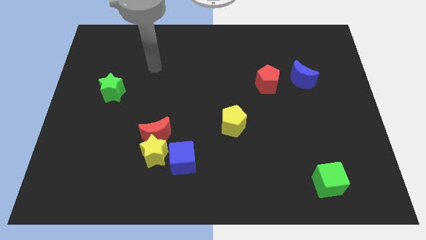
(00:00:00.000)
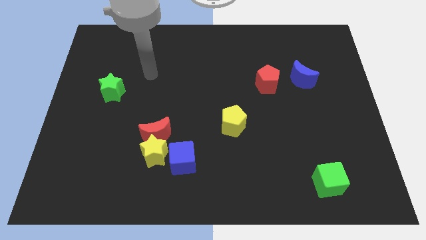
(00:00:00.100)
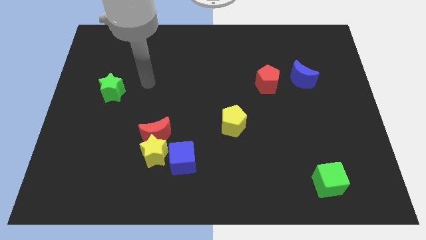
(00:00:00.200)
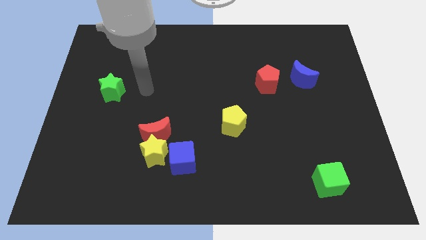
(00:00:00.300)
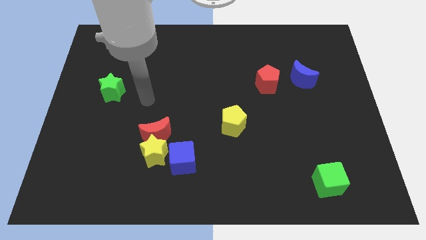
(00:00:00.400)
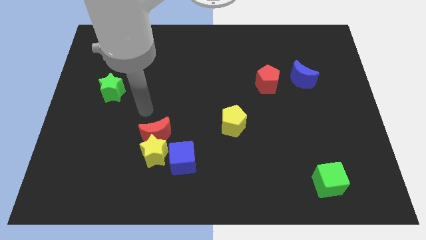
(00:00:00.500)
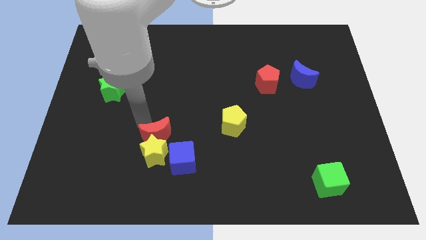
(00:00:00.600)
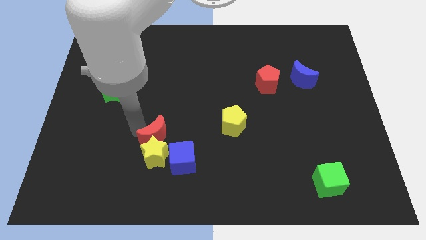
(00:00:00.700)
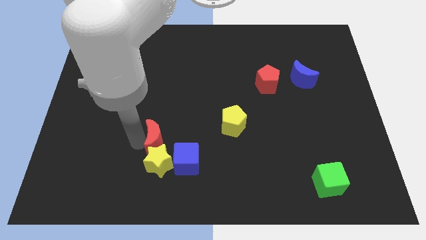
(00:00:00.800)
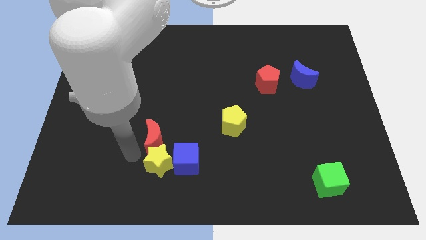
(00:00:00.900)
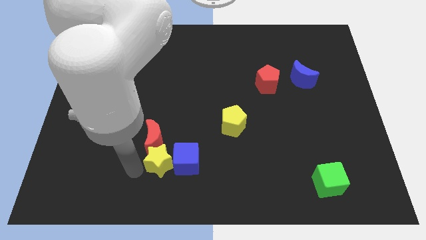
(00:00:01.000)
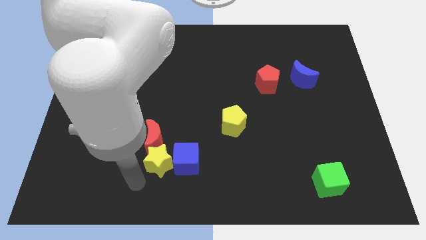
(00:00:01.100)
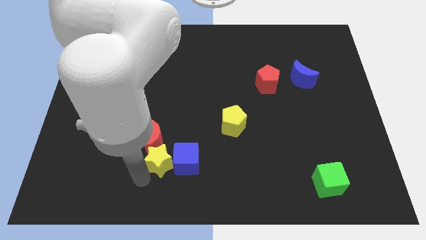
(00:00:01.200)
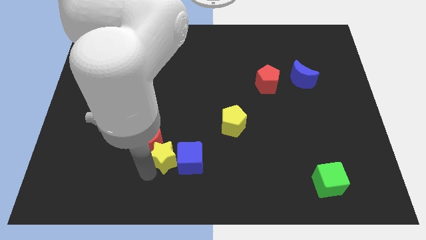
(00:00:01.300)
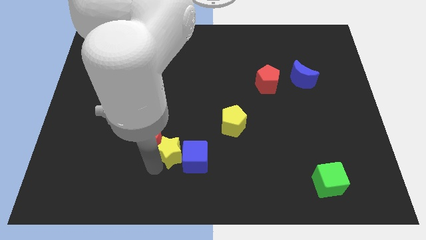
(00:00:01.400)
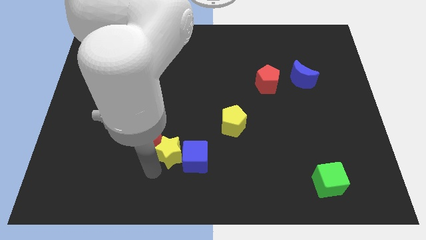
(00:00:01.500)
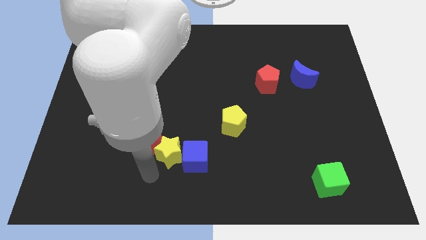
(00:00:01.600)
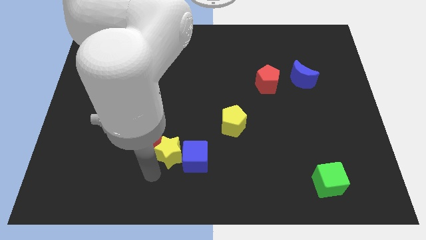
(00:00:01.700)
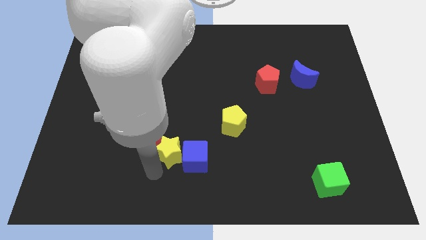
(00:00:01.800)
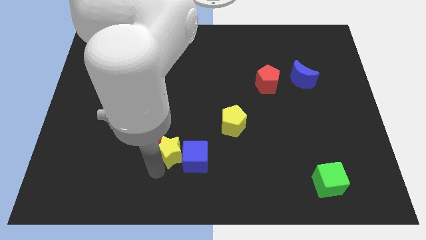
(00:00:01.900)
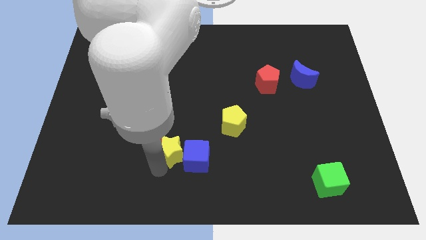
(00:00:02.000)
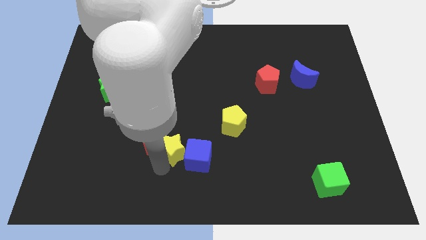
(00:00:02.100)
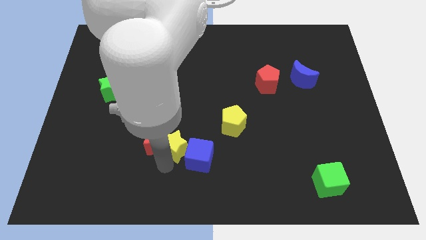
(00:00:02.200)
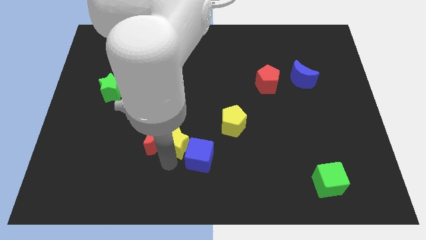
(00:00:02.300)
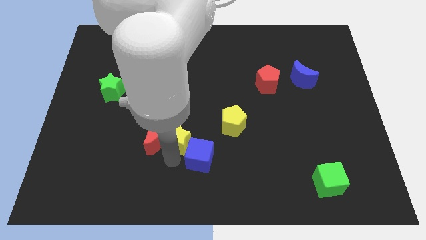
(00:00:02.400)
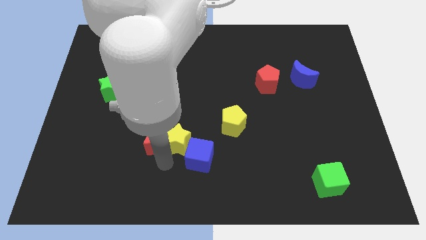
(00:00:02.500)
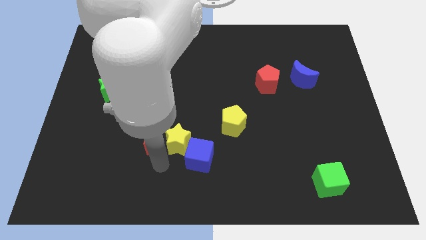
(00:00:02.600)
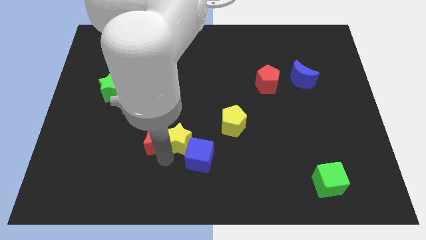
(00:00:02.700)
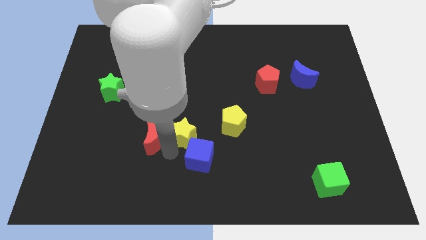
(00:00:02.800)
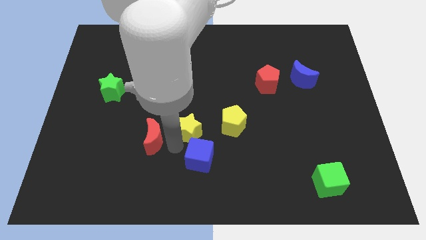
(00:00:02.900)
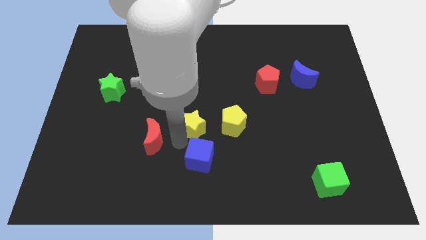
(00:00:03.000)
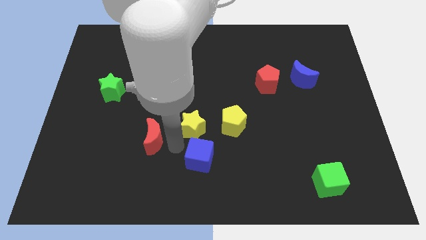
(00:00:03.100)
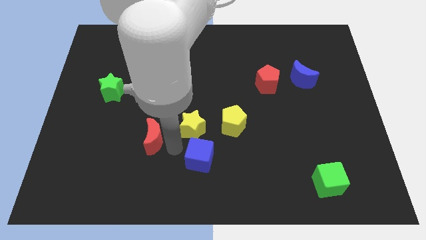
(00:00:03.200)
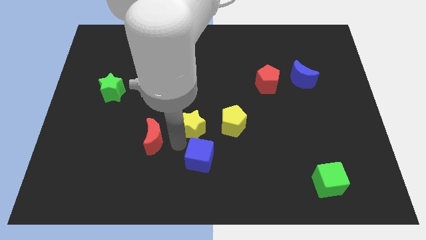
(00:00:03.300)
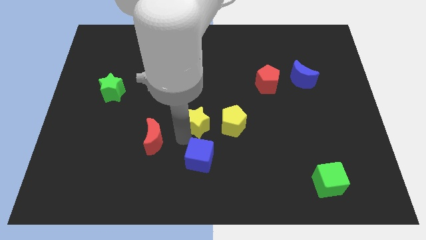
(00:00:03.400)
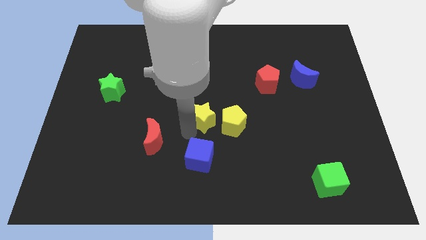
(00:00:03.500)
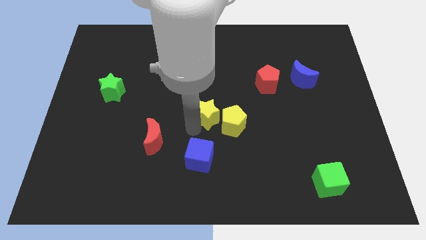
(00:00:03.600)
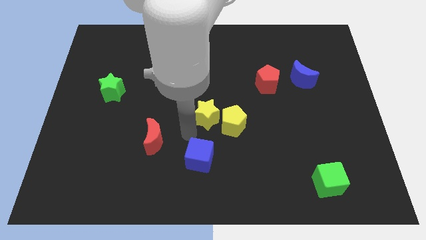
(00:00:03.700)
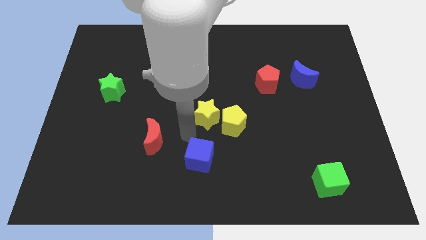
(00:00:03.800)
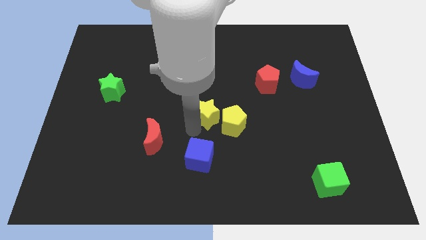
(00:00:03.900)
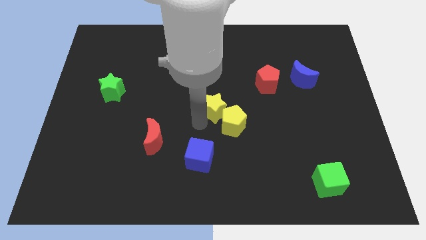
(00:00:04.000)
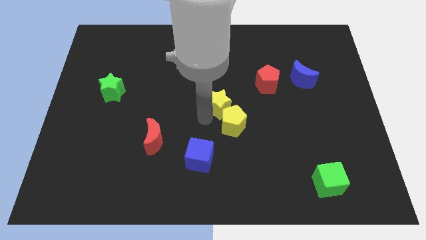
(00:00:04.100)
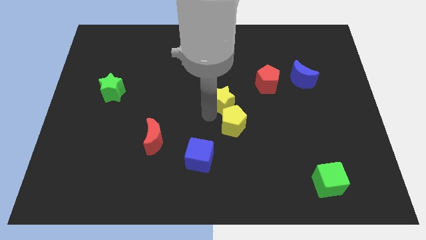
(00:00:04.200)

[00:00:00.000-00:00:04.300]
move the yellow star up and to the right diagonally

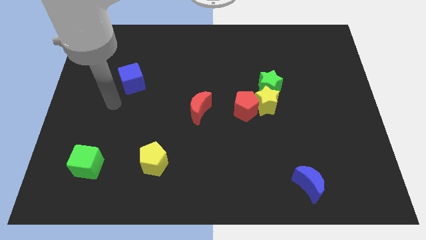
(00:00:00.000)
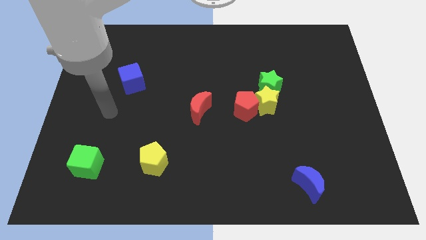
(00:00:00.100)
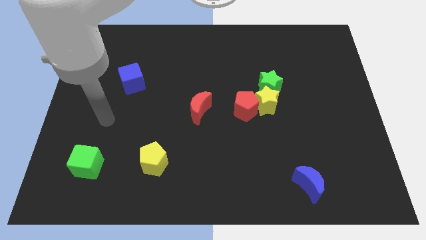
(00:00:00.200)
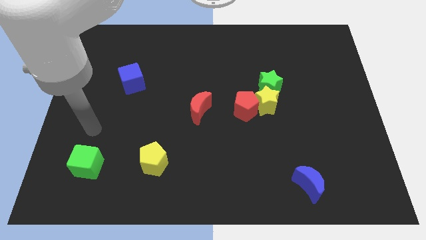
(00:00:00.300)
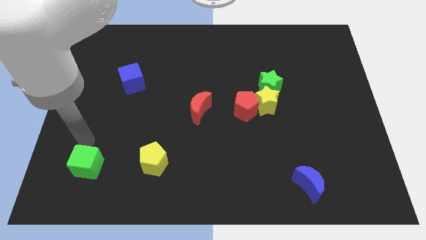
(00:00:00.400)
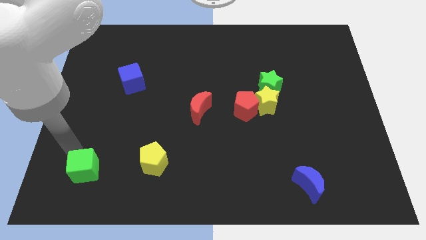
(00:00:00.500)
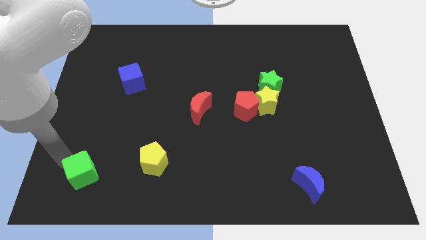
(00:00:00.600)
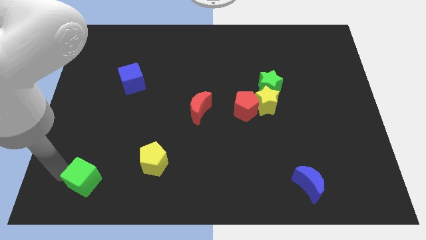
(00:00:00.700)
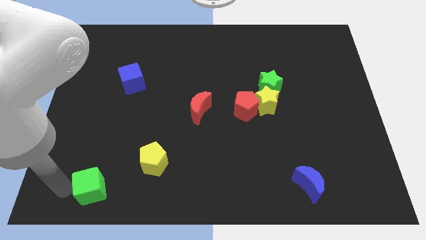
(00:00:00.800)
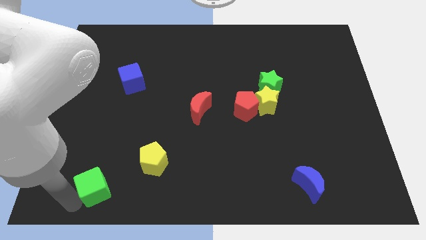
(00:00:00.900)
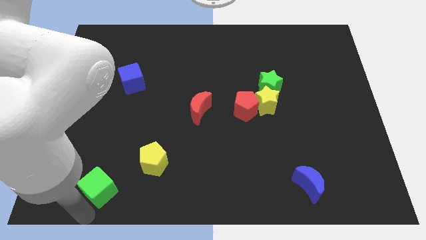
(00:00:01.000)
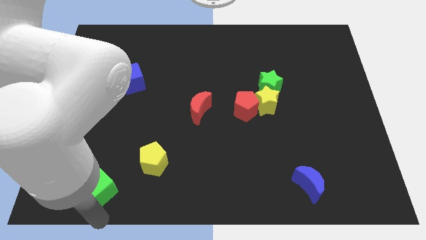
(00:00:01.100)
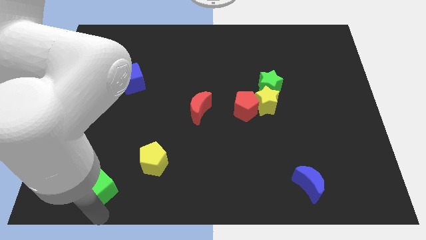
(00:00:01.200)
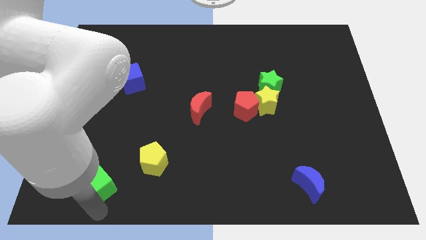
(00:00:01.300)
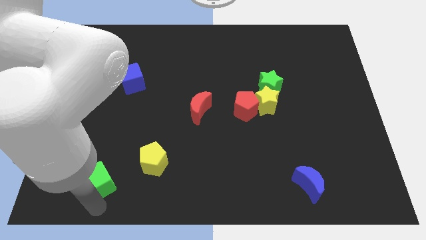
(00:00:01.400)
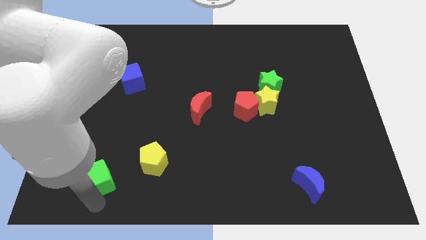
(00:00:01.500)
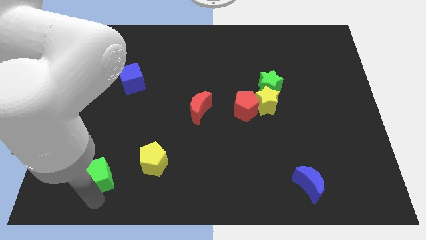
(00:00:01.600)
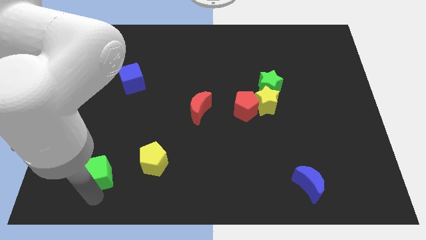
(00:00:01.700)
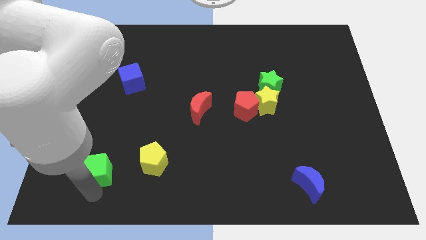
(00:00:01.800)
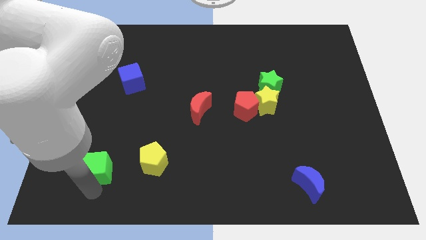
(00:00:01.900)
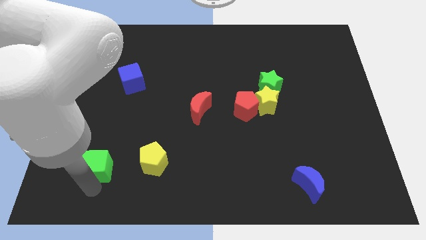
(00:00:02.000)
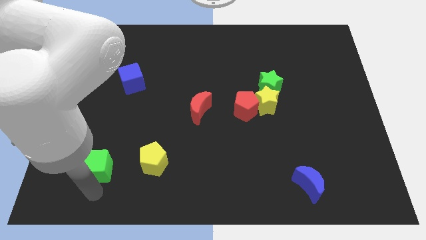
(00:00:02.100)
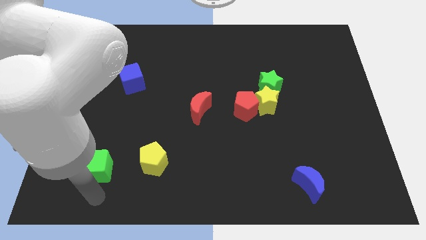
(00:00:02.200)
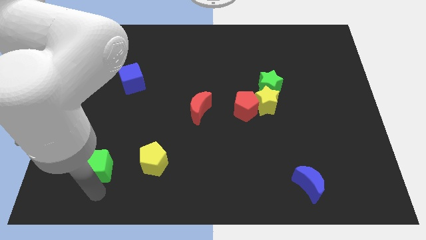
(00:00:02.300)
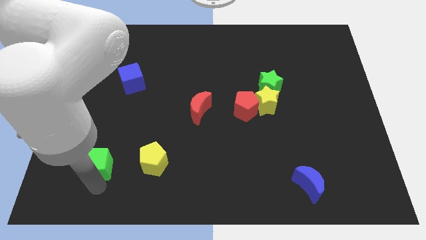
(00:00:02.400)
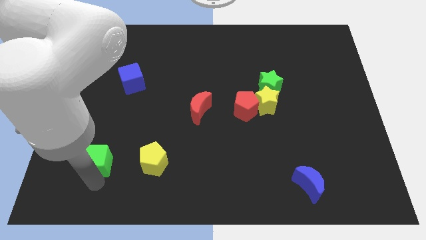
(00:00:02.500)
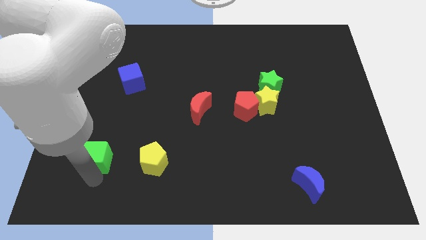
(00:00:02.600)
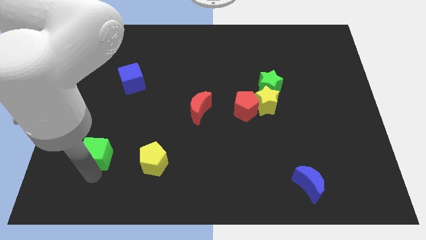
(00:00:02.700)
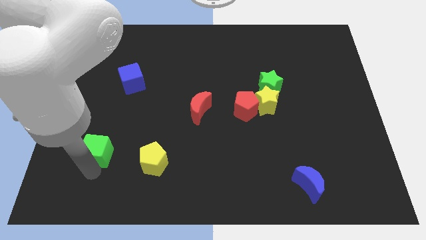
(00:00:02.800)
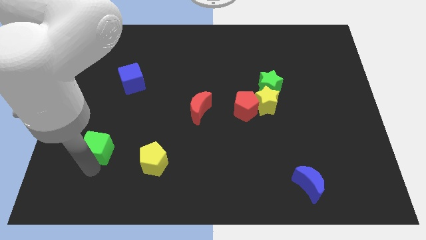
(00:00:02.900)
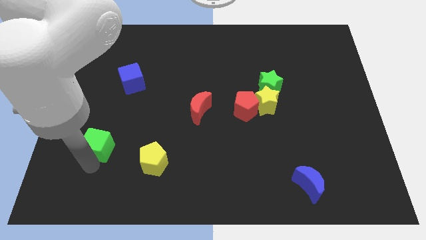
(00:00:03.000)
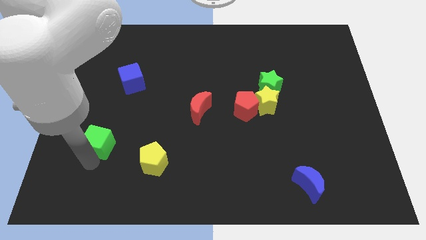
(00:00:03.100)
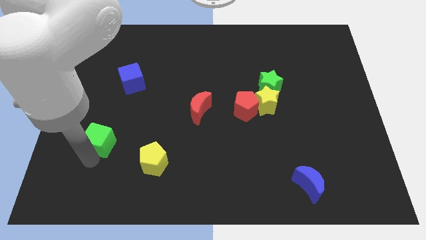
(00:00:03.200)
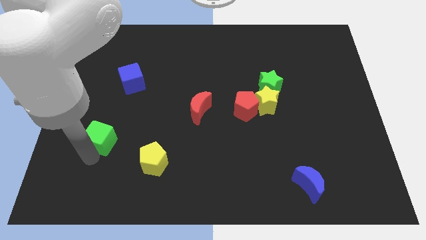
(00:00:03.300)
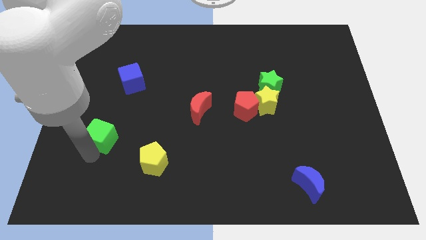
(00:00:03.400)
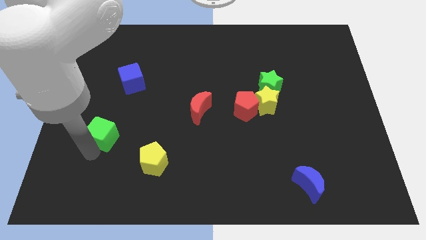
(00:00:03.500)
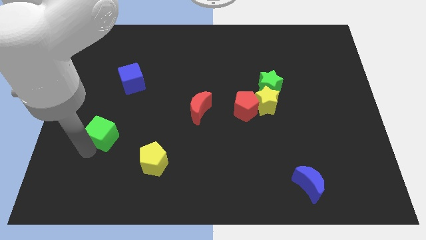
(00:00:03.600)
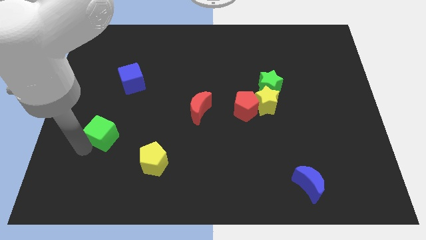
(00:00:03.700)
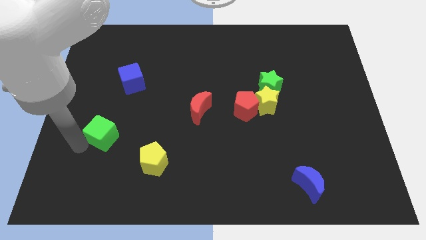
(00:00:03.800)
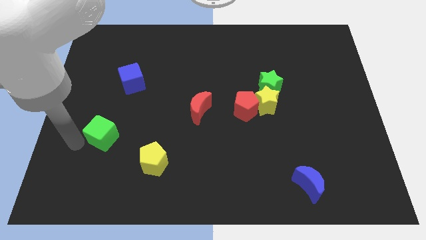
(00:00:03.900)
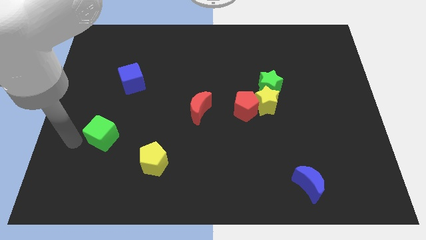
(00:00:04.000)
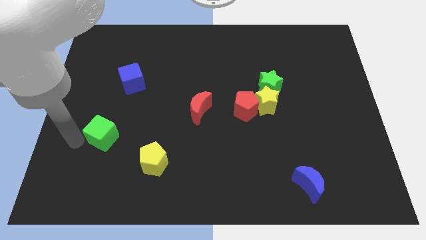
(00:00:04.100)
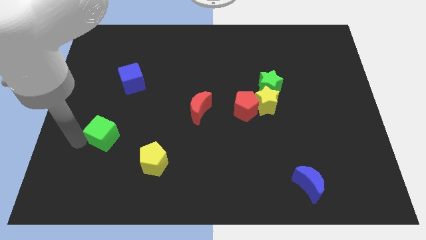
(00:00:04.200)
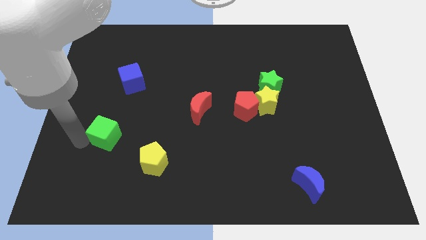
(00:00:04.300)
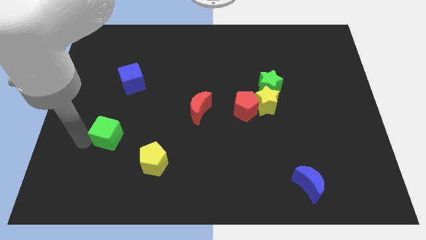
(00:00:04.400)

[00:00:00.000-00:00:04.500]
push the green cube up and to the right a bit
